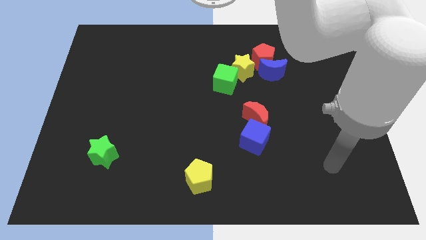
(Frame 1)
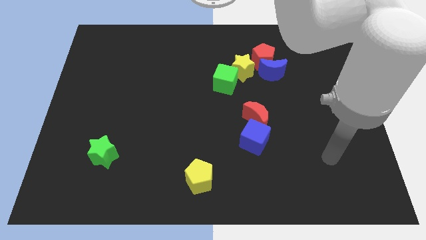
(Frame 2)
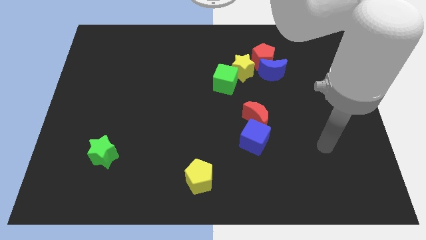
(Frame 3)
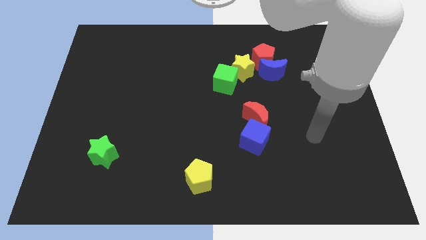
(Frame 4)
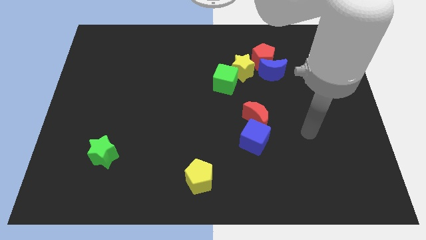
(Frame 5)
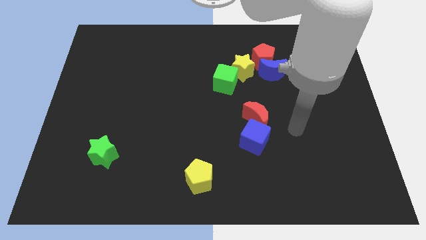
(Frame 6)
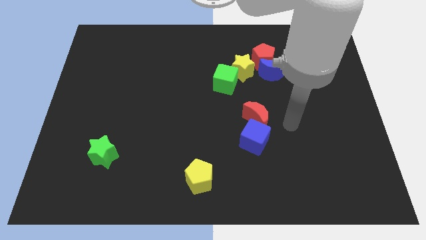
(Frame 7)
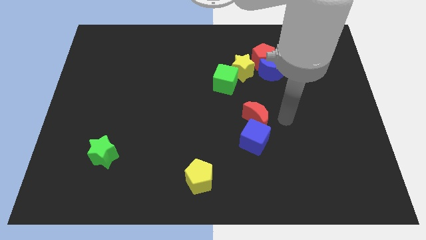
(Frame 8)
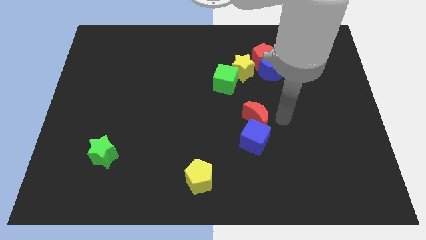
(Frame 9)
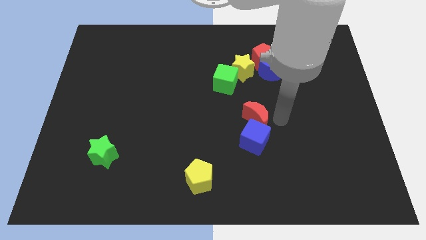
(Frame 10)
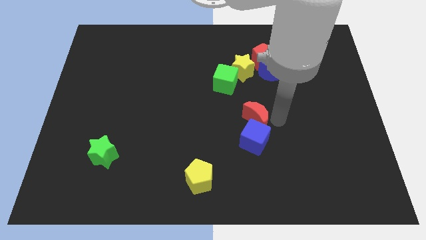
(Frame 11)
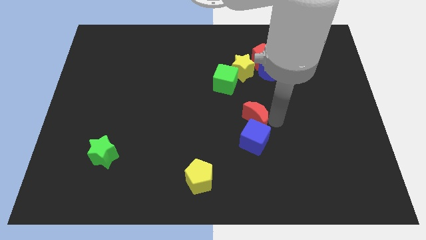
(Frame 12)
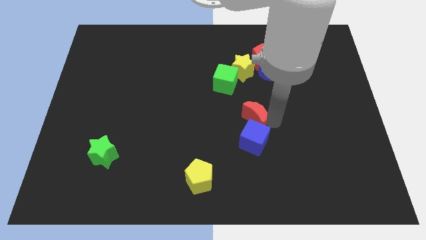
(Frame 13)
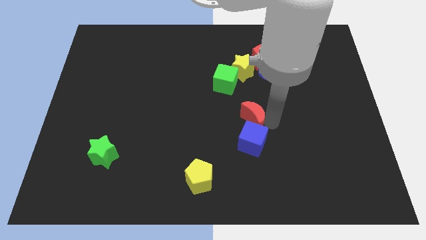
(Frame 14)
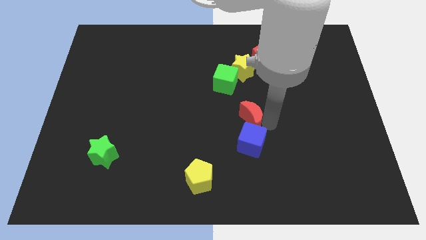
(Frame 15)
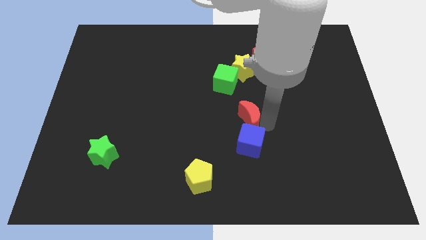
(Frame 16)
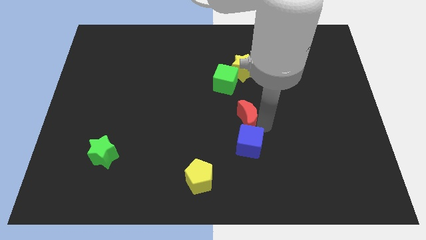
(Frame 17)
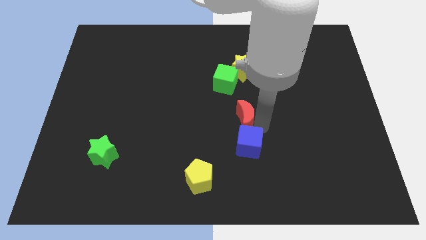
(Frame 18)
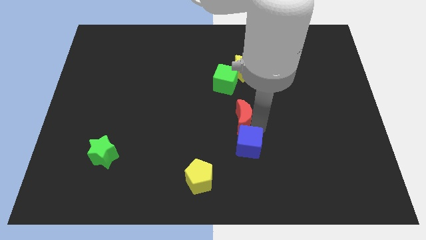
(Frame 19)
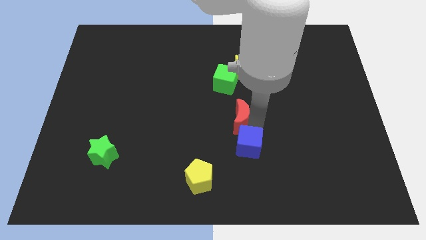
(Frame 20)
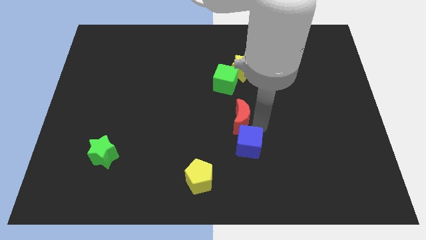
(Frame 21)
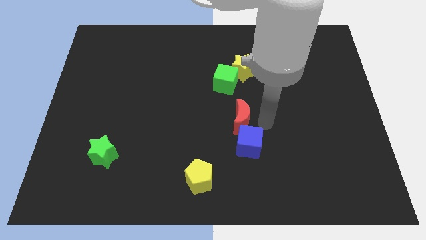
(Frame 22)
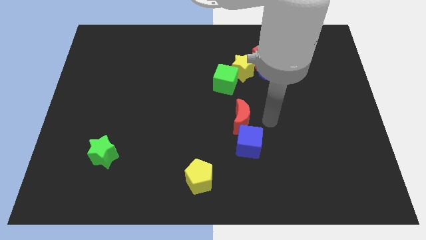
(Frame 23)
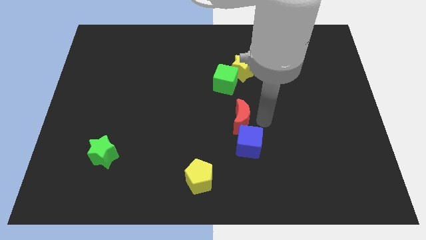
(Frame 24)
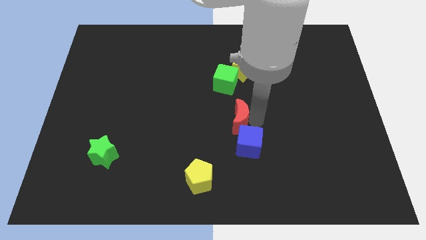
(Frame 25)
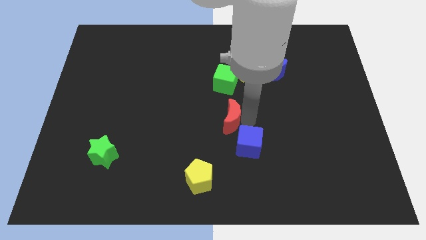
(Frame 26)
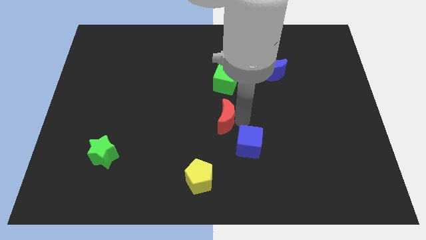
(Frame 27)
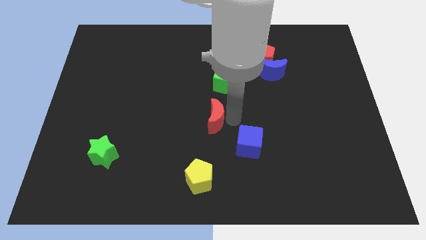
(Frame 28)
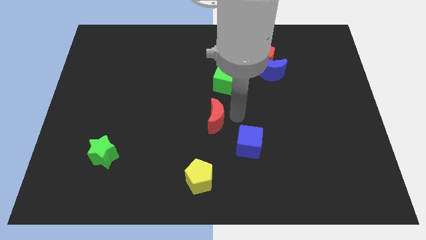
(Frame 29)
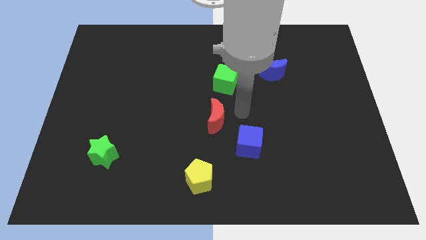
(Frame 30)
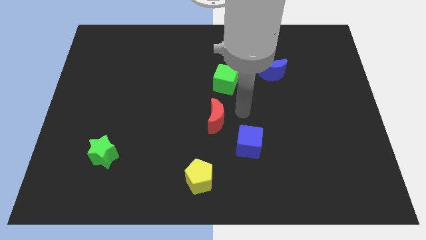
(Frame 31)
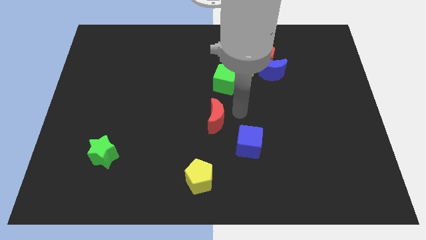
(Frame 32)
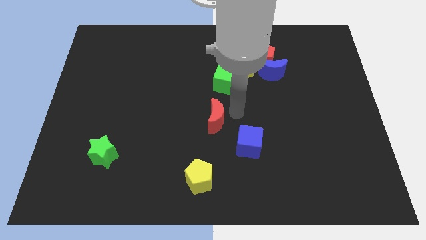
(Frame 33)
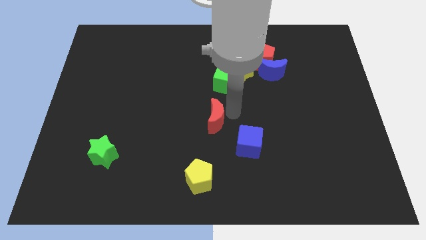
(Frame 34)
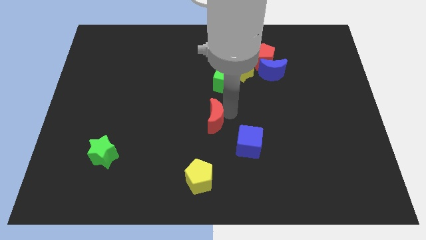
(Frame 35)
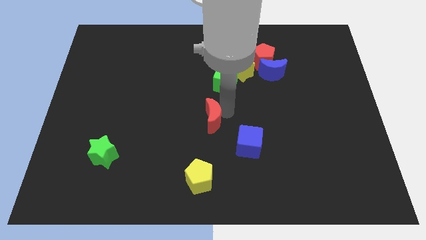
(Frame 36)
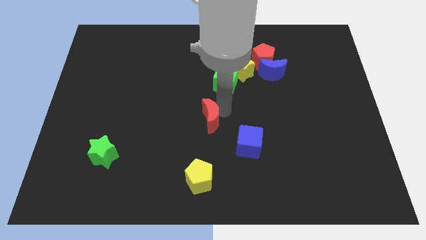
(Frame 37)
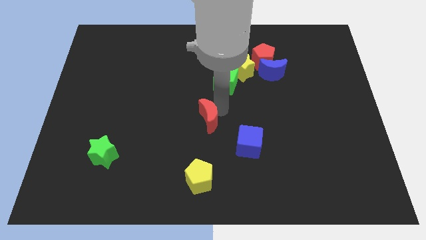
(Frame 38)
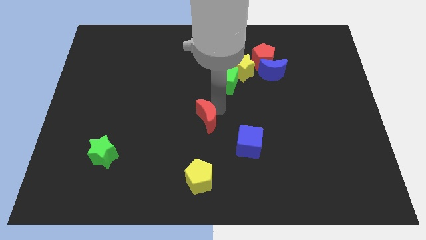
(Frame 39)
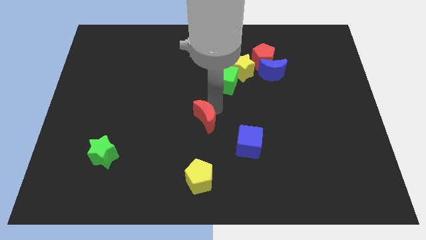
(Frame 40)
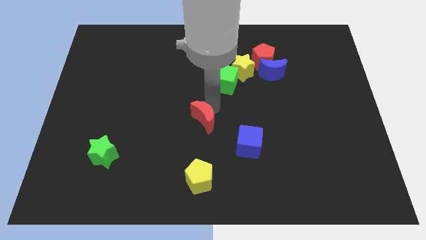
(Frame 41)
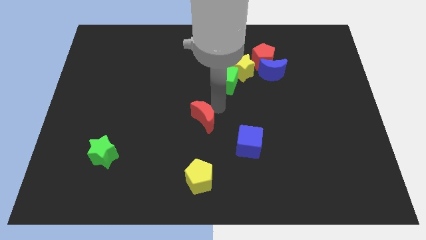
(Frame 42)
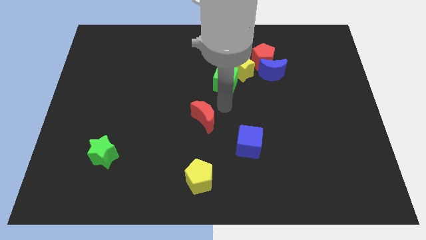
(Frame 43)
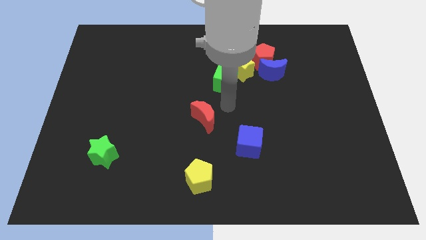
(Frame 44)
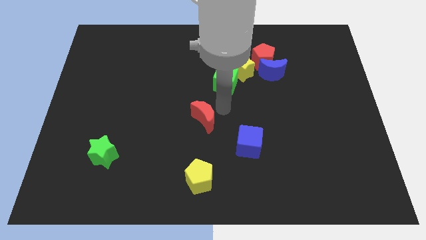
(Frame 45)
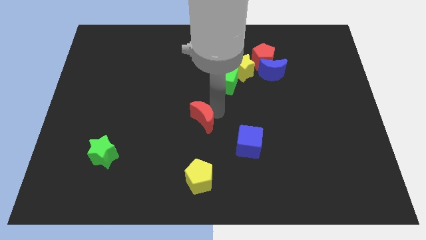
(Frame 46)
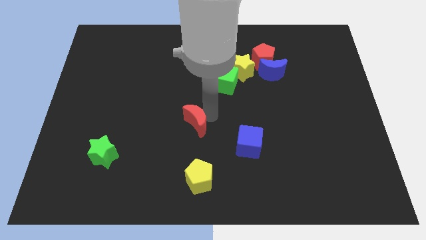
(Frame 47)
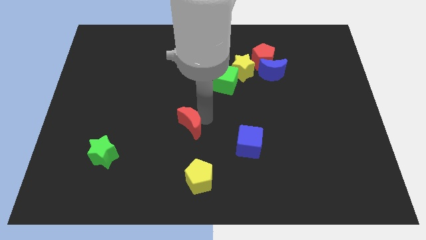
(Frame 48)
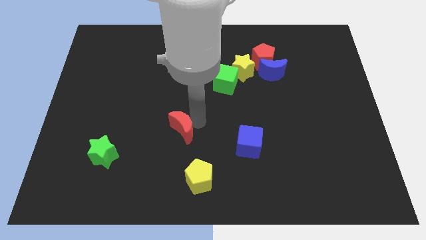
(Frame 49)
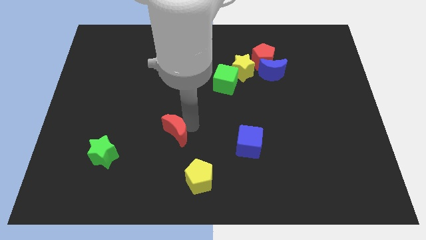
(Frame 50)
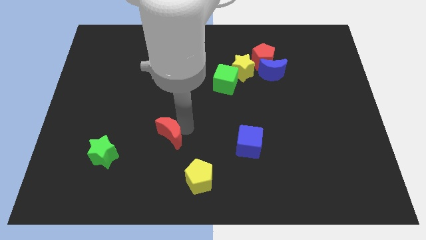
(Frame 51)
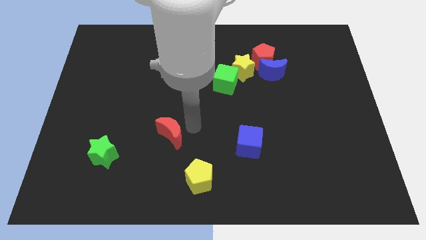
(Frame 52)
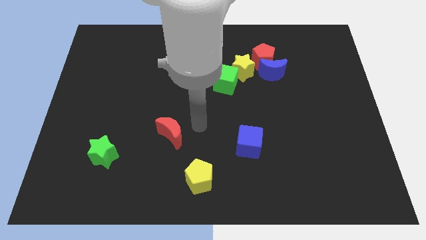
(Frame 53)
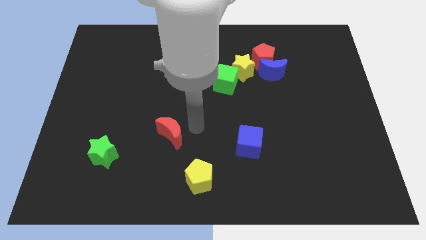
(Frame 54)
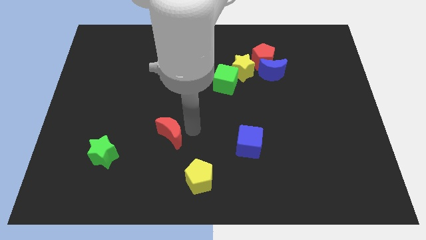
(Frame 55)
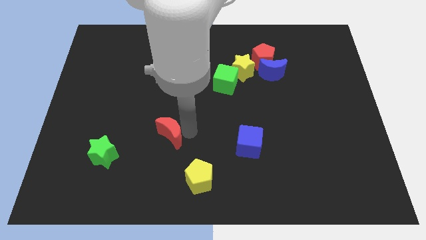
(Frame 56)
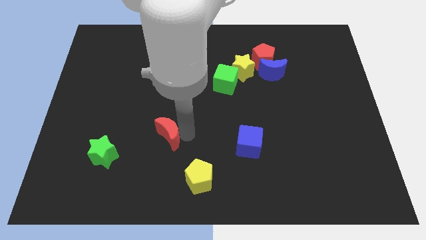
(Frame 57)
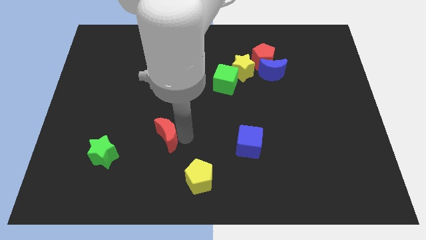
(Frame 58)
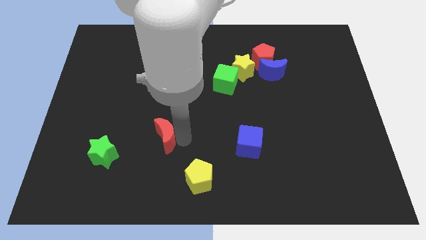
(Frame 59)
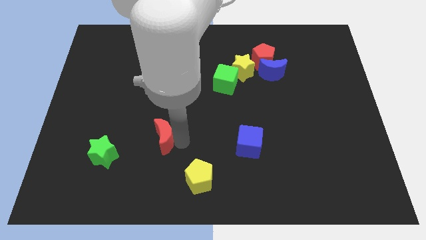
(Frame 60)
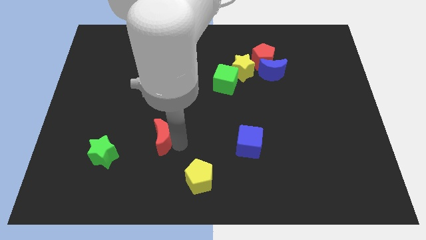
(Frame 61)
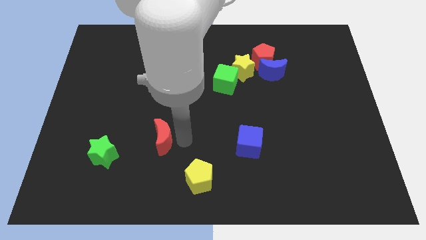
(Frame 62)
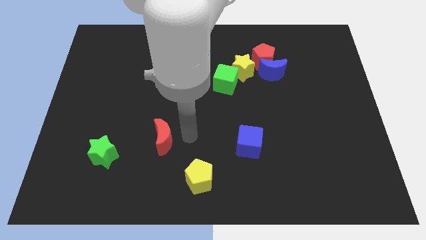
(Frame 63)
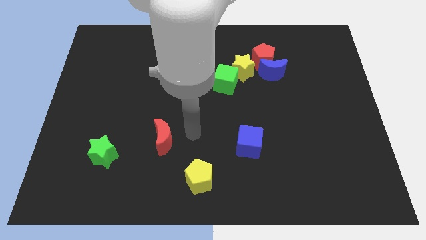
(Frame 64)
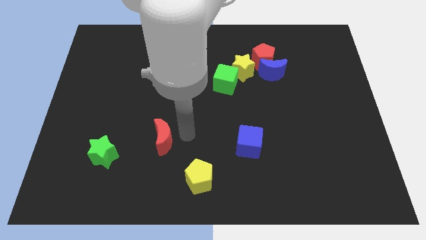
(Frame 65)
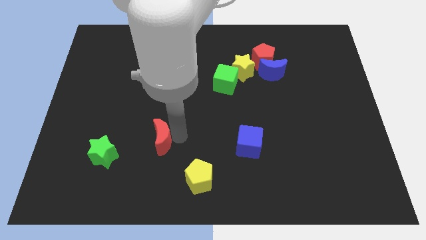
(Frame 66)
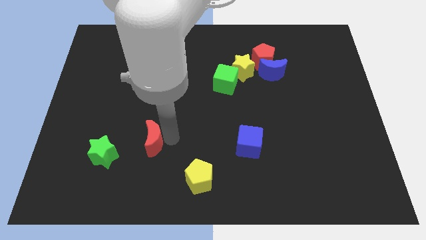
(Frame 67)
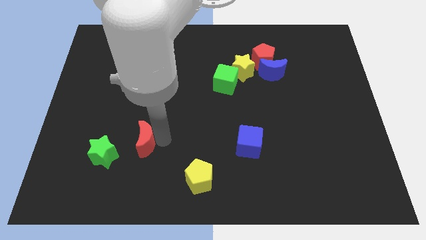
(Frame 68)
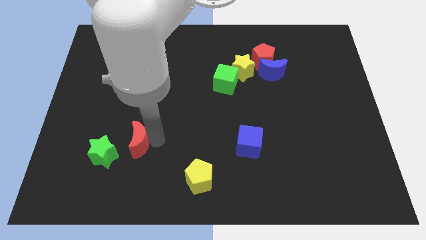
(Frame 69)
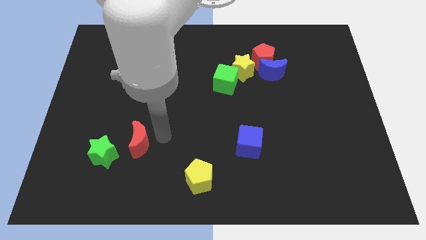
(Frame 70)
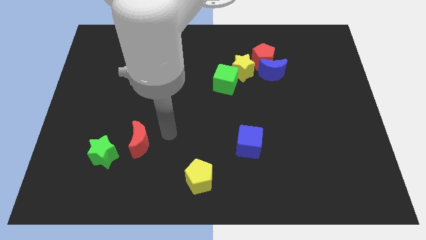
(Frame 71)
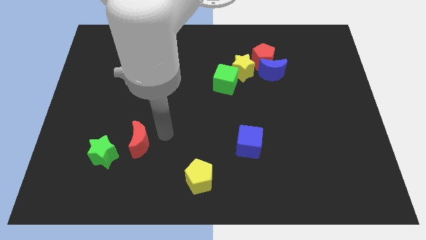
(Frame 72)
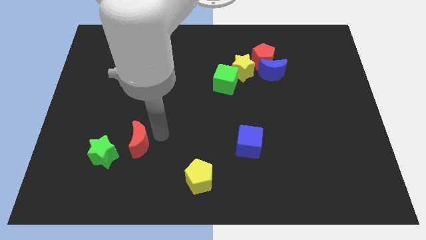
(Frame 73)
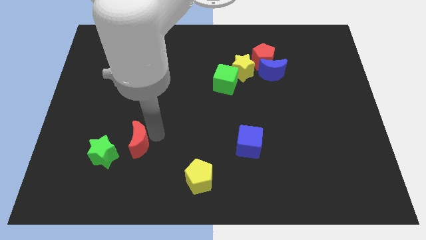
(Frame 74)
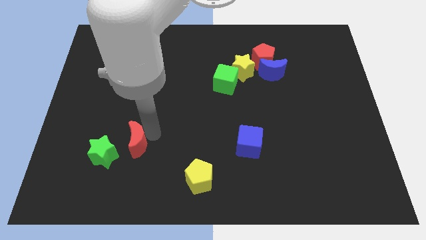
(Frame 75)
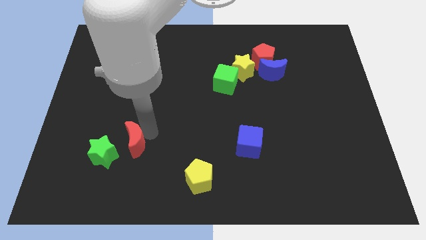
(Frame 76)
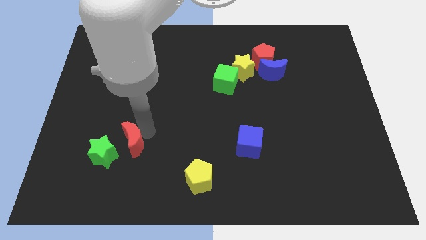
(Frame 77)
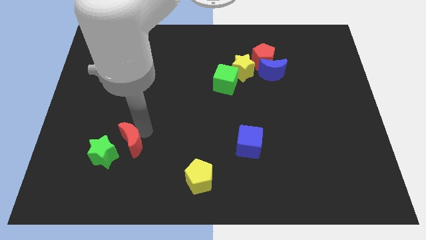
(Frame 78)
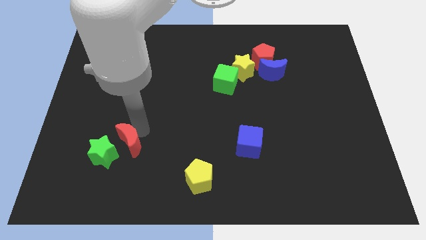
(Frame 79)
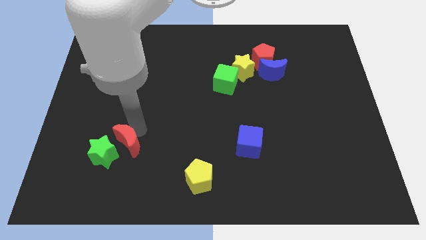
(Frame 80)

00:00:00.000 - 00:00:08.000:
slide the red moon close to the green star
